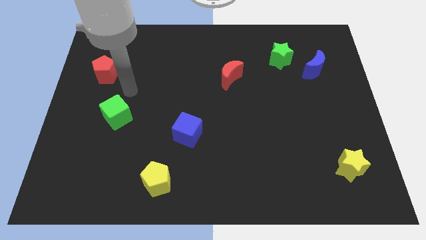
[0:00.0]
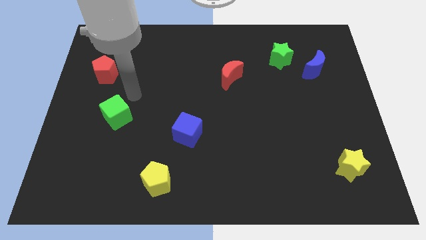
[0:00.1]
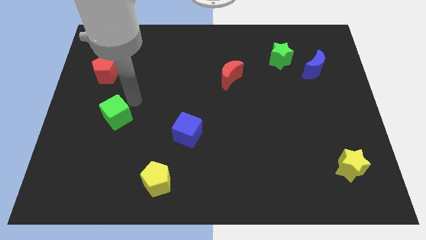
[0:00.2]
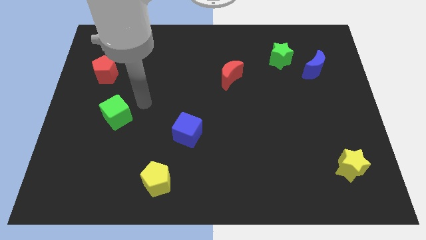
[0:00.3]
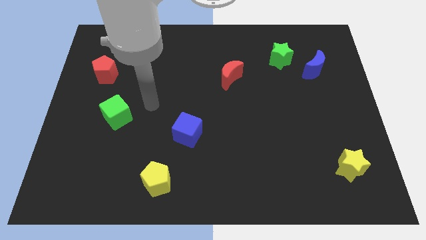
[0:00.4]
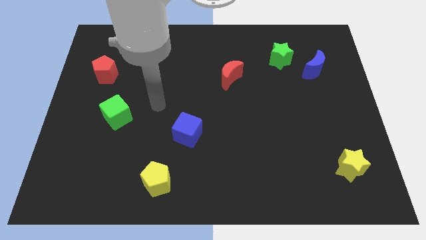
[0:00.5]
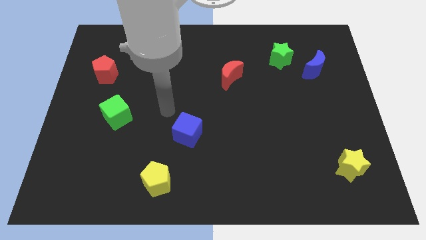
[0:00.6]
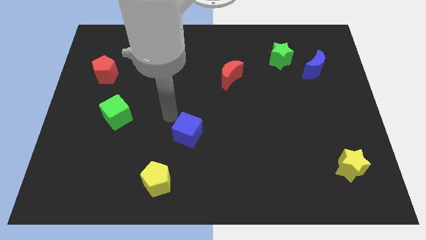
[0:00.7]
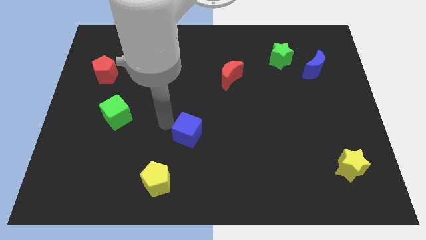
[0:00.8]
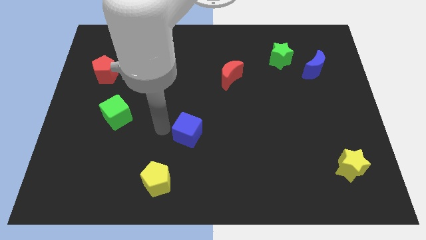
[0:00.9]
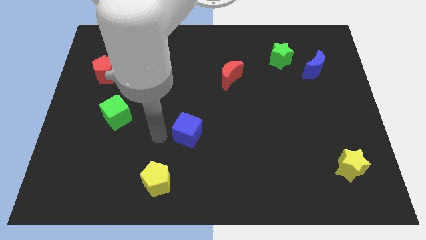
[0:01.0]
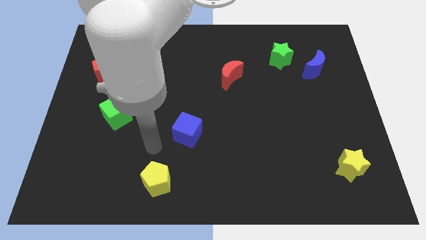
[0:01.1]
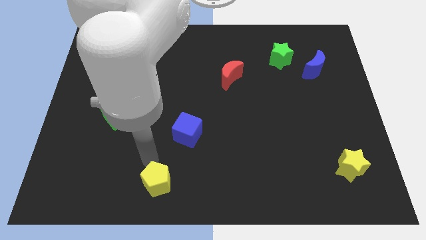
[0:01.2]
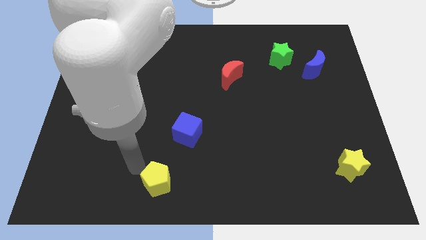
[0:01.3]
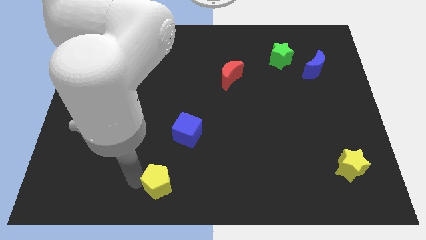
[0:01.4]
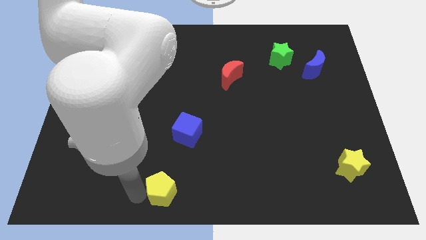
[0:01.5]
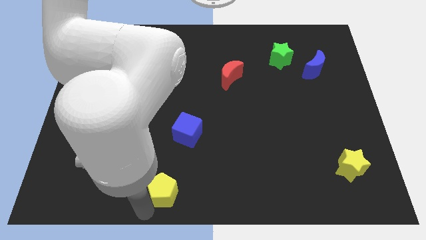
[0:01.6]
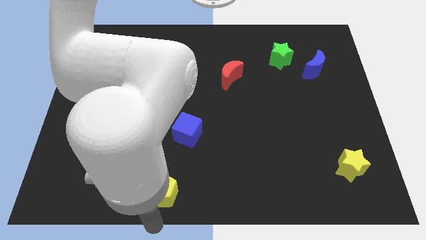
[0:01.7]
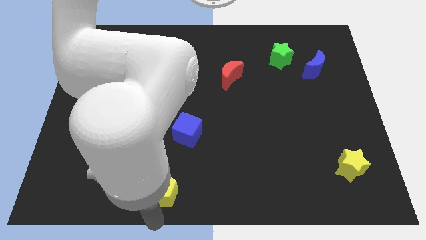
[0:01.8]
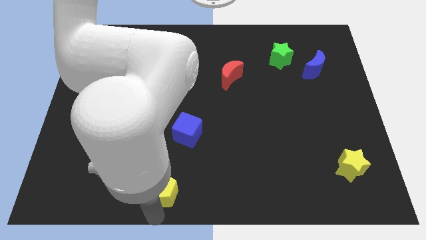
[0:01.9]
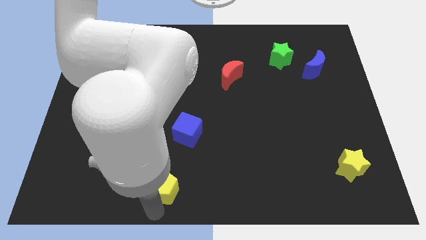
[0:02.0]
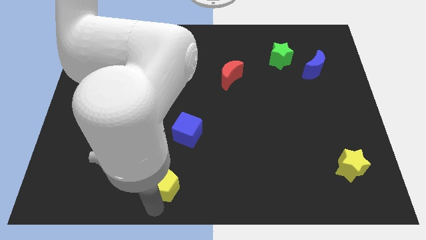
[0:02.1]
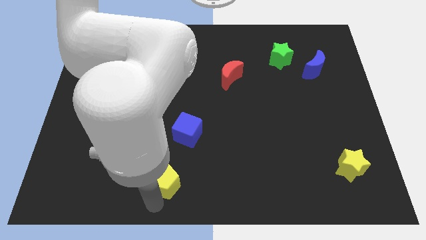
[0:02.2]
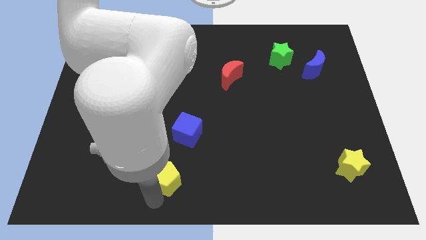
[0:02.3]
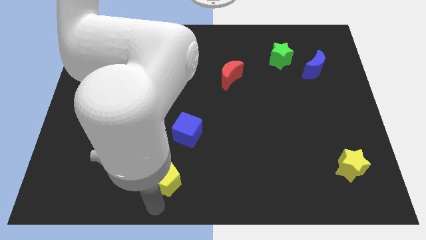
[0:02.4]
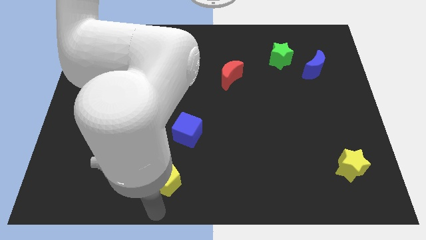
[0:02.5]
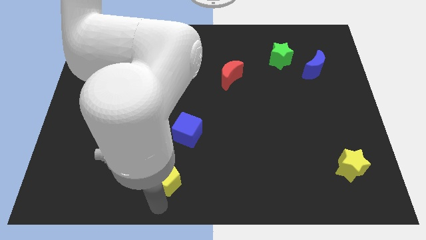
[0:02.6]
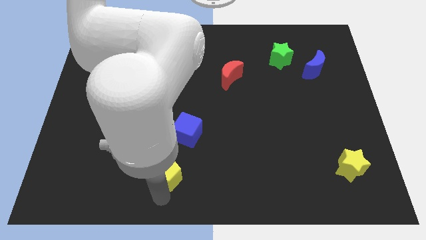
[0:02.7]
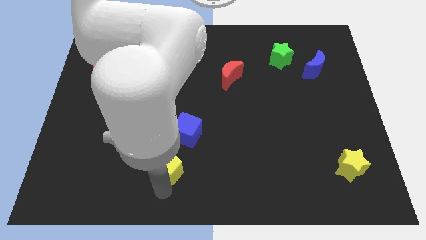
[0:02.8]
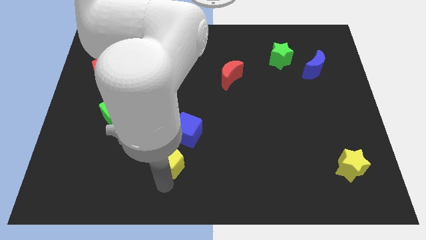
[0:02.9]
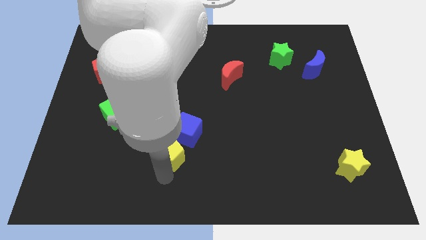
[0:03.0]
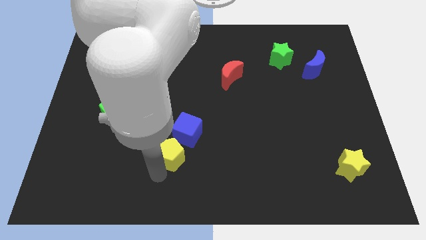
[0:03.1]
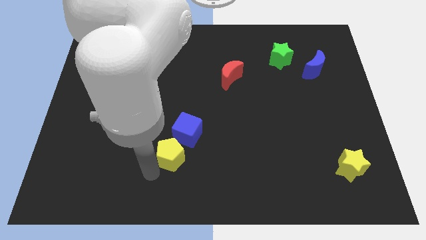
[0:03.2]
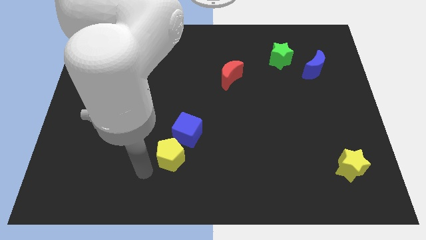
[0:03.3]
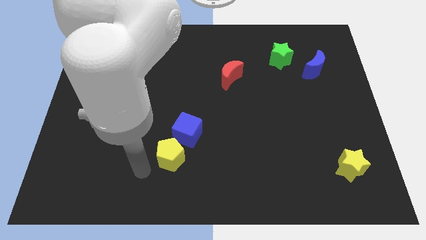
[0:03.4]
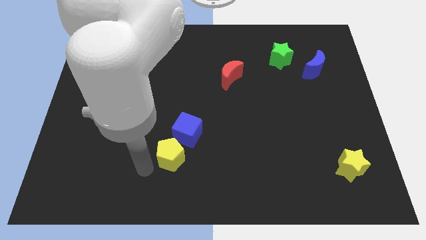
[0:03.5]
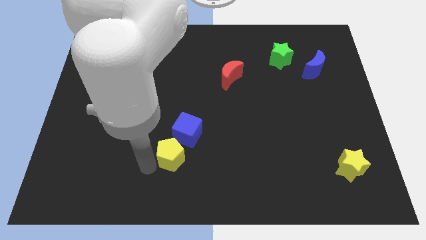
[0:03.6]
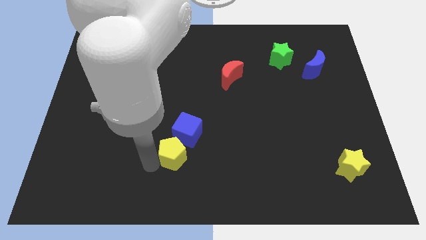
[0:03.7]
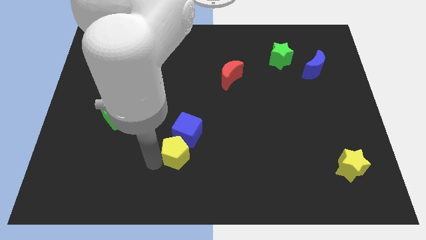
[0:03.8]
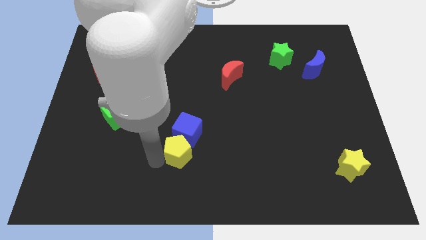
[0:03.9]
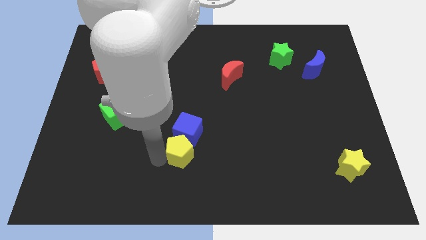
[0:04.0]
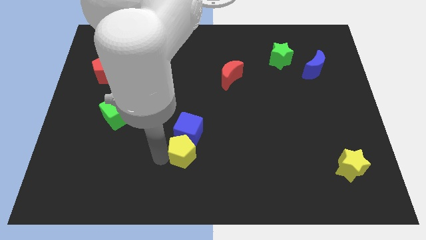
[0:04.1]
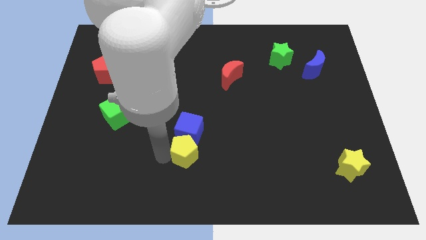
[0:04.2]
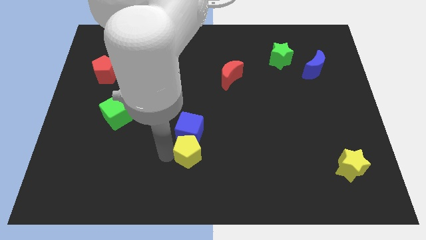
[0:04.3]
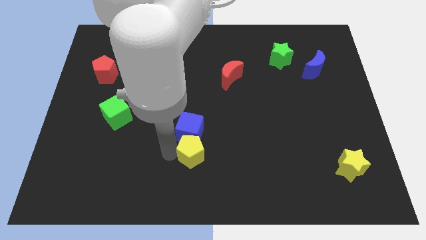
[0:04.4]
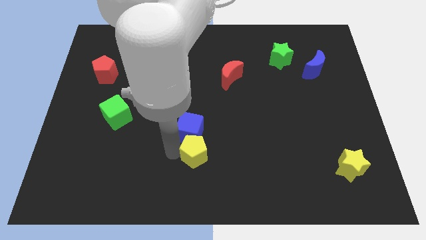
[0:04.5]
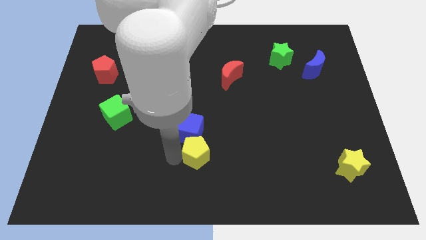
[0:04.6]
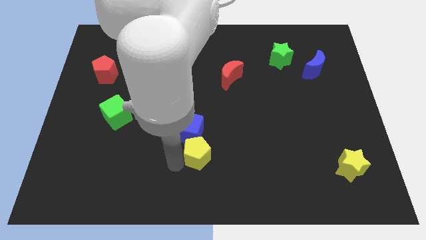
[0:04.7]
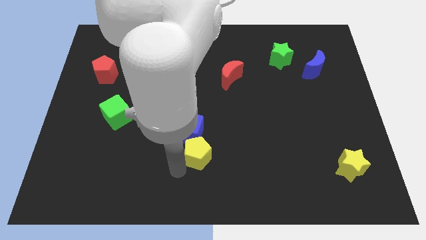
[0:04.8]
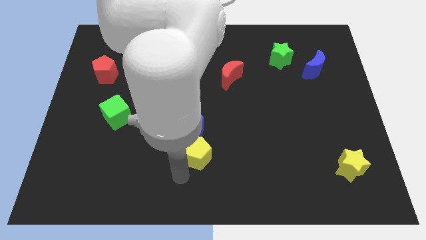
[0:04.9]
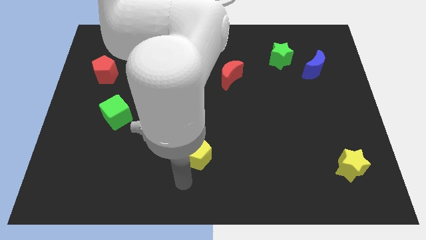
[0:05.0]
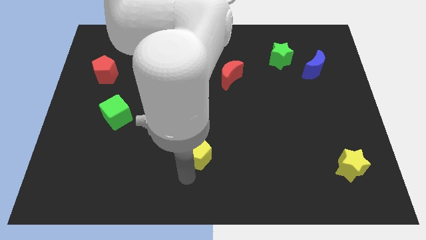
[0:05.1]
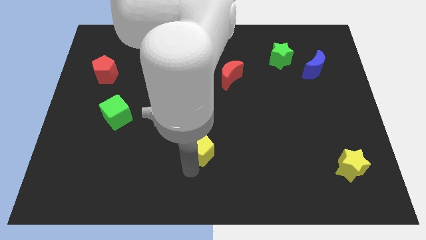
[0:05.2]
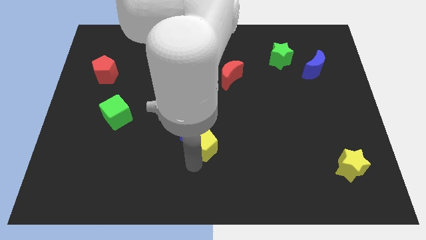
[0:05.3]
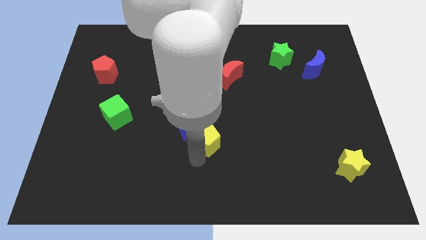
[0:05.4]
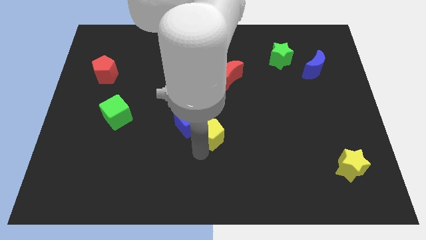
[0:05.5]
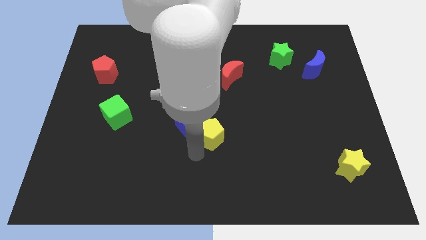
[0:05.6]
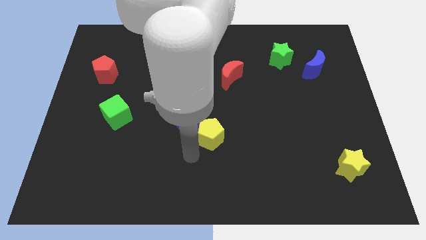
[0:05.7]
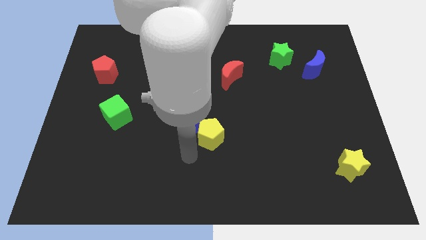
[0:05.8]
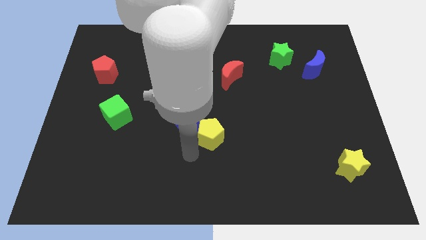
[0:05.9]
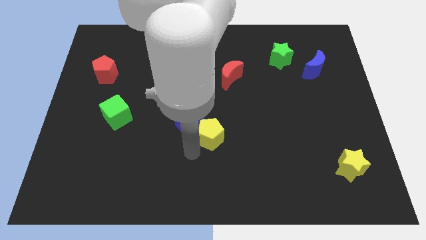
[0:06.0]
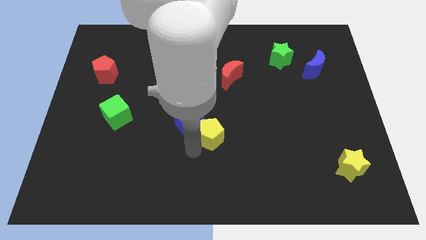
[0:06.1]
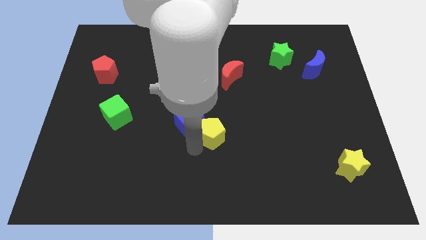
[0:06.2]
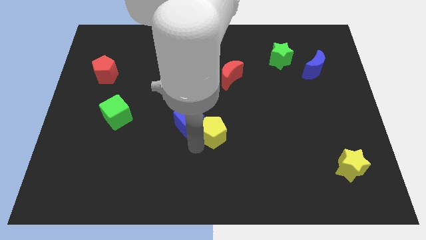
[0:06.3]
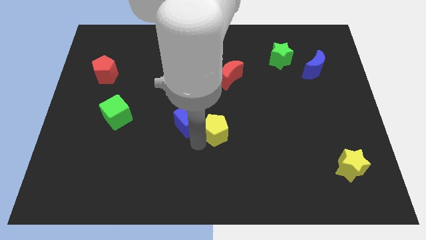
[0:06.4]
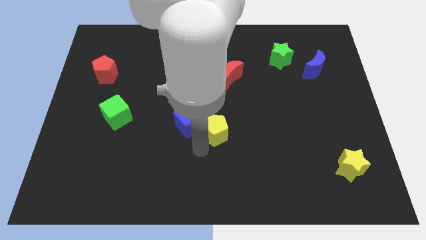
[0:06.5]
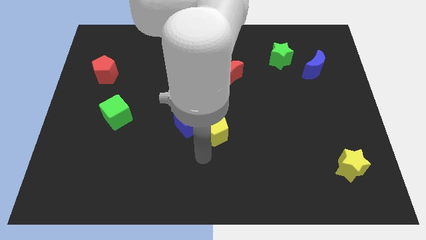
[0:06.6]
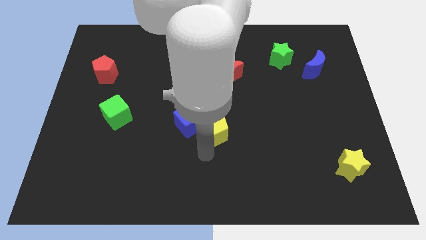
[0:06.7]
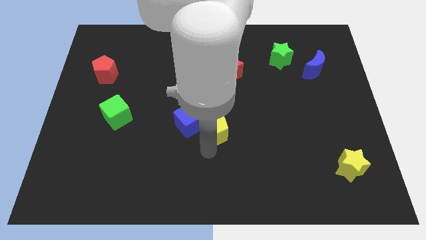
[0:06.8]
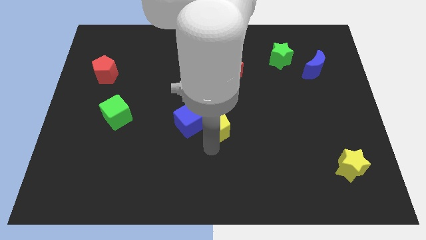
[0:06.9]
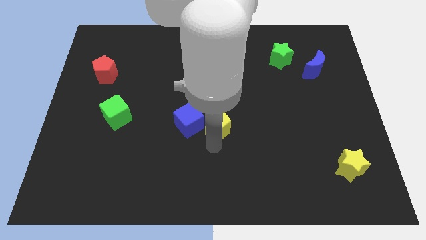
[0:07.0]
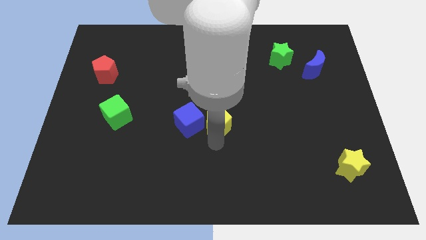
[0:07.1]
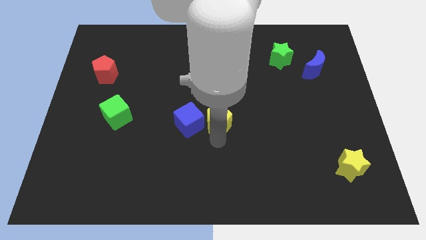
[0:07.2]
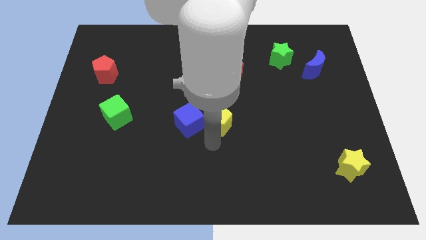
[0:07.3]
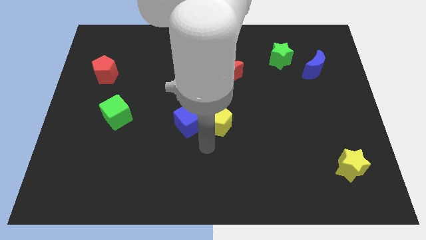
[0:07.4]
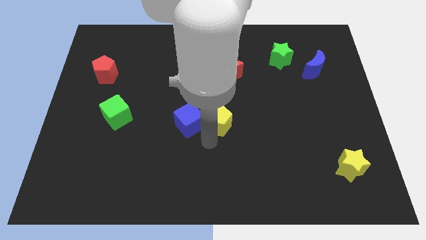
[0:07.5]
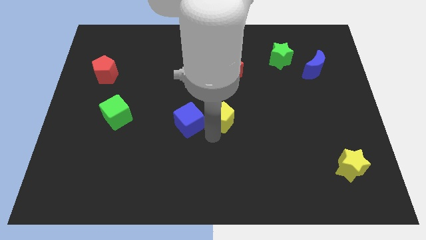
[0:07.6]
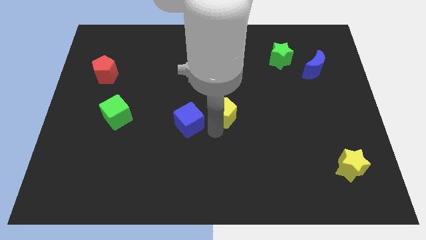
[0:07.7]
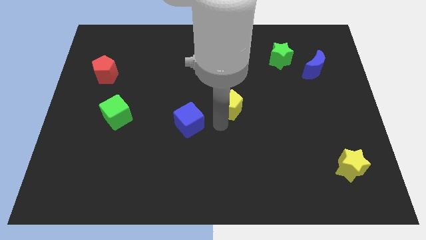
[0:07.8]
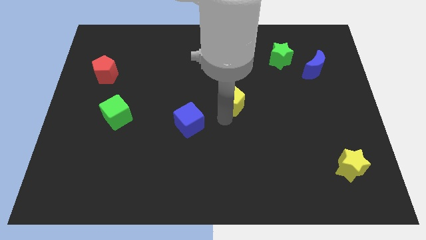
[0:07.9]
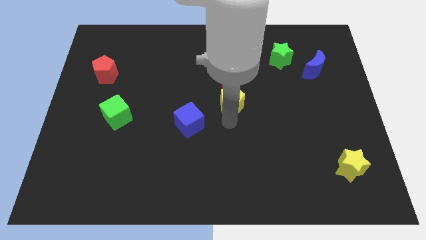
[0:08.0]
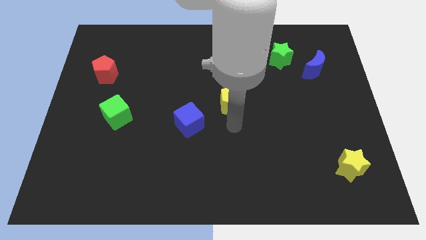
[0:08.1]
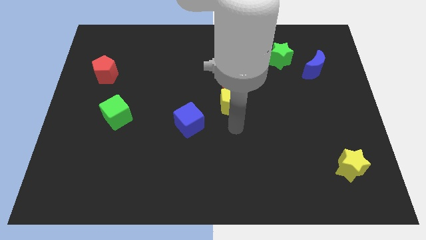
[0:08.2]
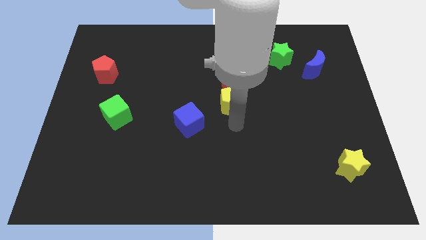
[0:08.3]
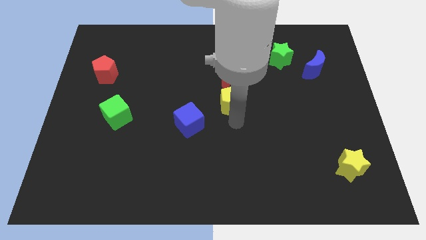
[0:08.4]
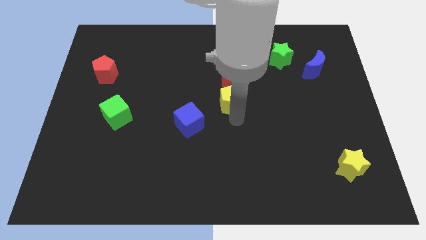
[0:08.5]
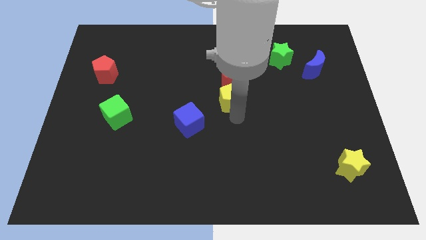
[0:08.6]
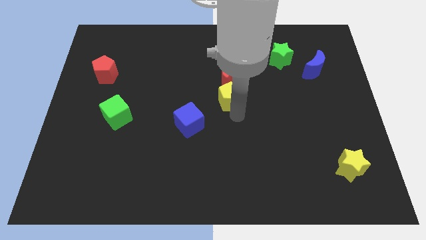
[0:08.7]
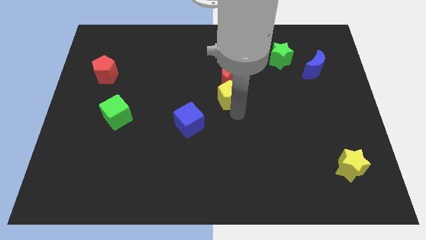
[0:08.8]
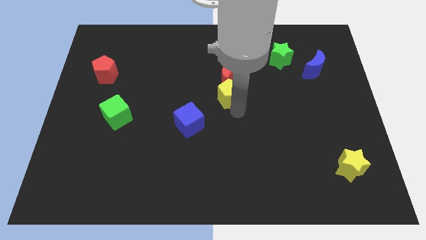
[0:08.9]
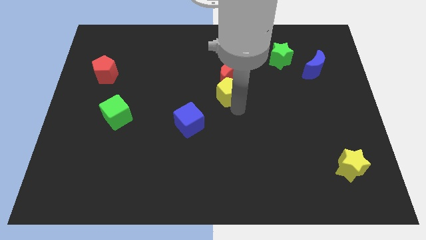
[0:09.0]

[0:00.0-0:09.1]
move the yellow pentagon close to the red moon
